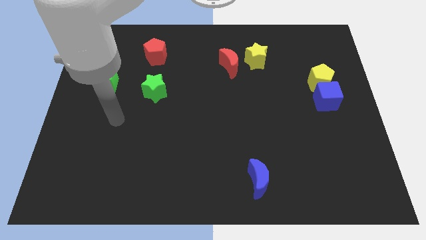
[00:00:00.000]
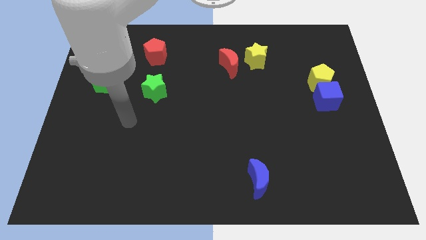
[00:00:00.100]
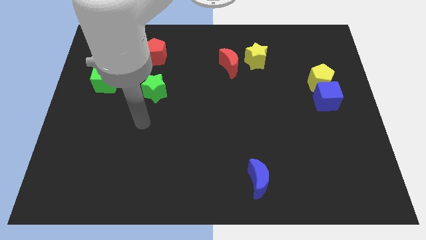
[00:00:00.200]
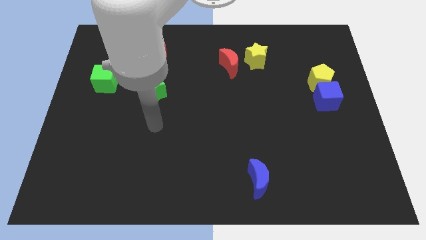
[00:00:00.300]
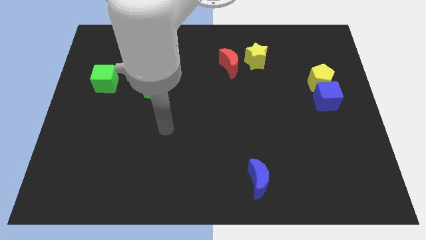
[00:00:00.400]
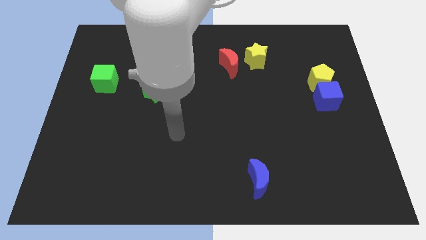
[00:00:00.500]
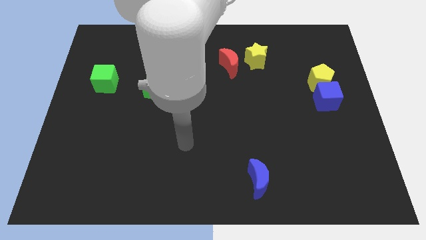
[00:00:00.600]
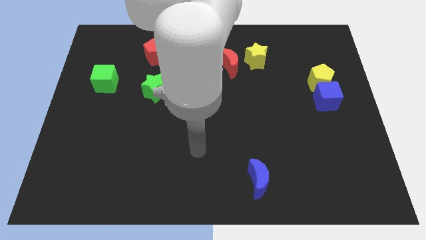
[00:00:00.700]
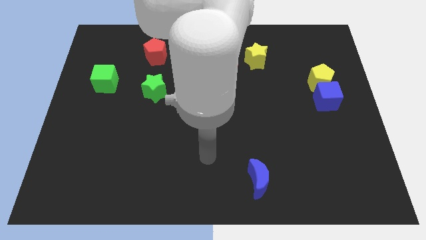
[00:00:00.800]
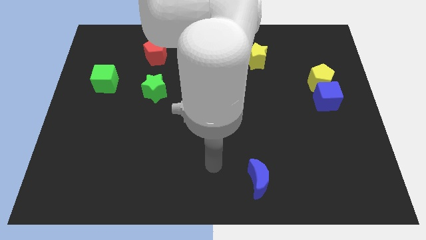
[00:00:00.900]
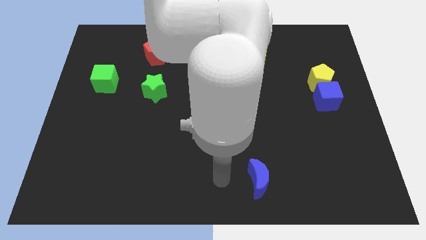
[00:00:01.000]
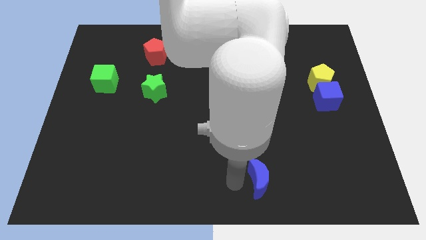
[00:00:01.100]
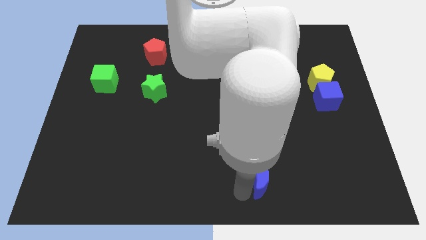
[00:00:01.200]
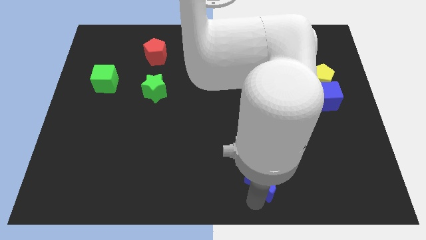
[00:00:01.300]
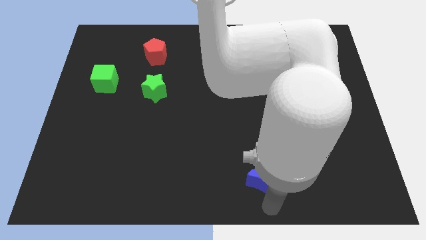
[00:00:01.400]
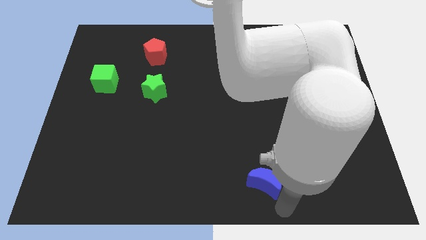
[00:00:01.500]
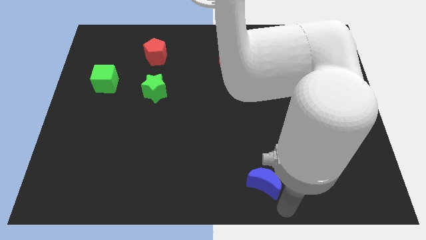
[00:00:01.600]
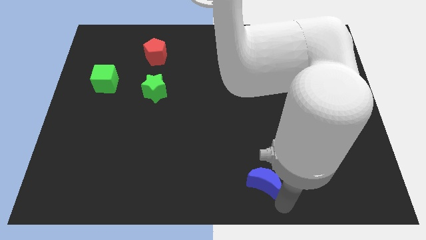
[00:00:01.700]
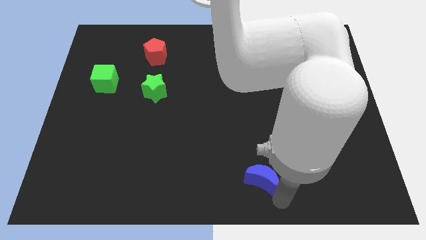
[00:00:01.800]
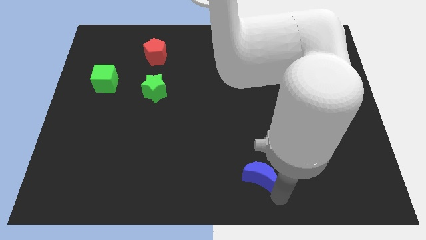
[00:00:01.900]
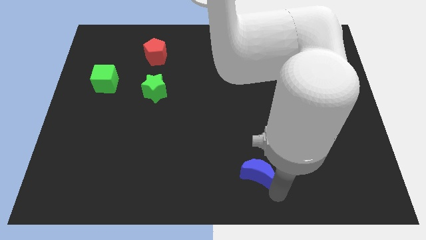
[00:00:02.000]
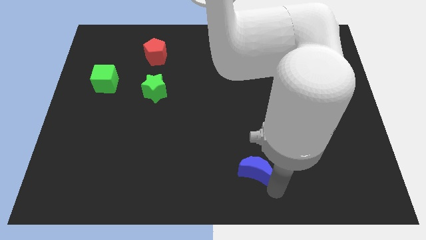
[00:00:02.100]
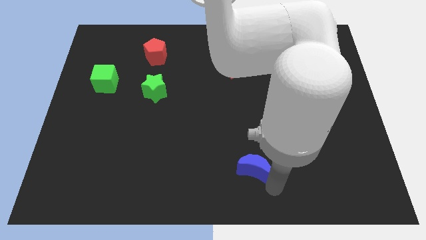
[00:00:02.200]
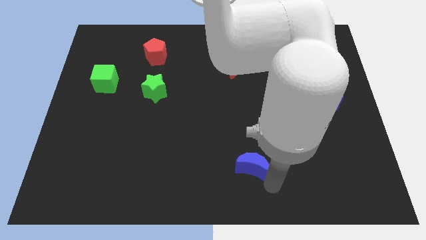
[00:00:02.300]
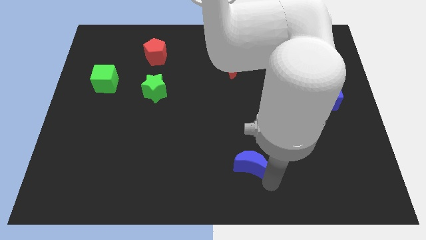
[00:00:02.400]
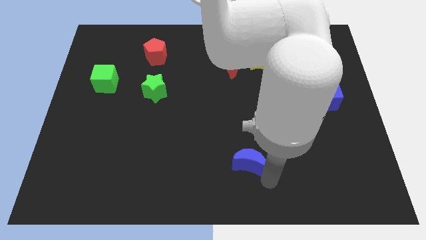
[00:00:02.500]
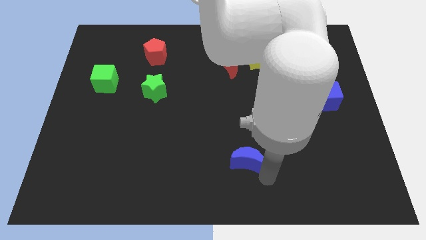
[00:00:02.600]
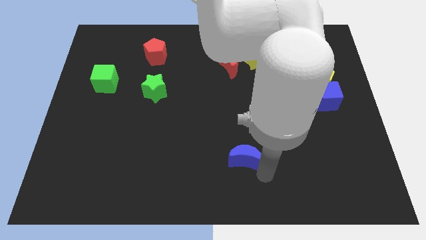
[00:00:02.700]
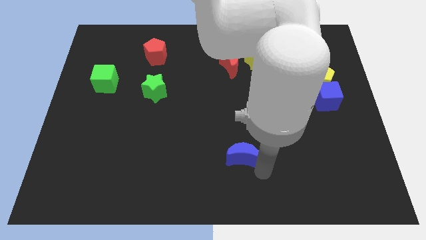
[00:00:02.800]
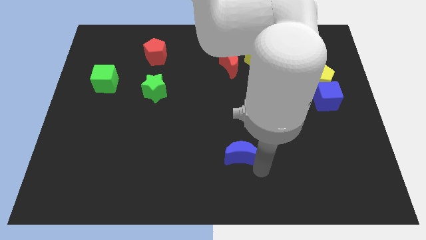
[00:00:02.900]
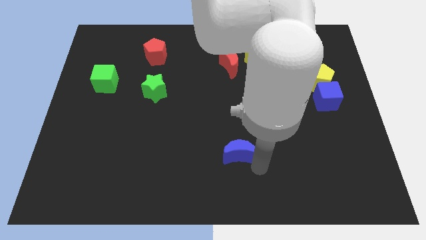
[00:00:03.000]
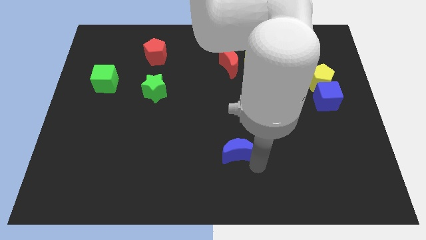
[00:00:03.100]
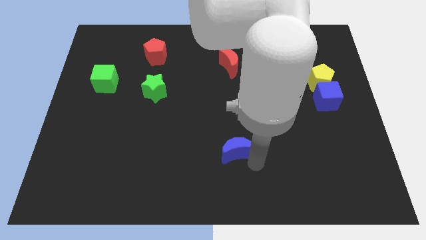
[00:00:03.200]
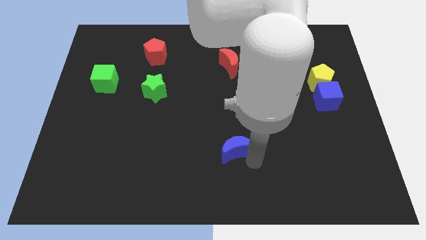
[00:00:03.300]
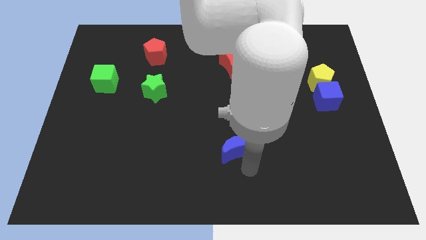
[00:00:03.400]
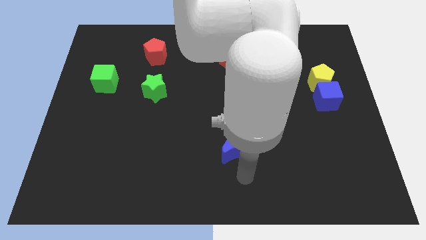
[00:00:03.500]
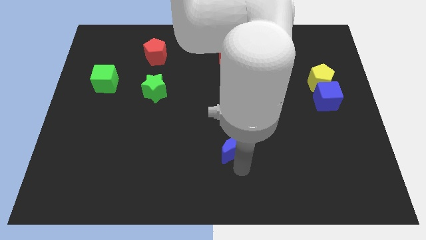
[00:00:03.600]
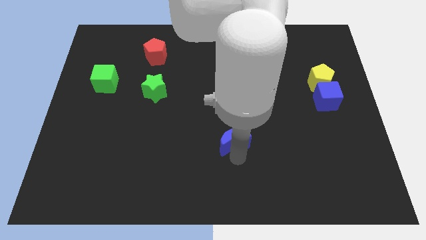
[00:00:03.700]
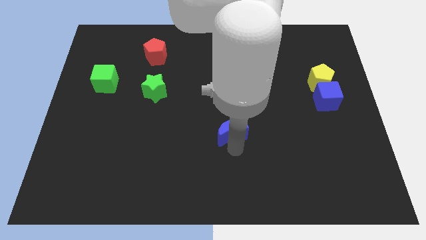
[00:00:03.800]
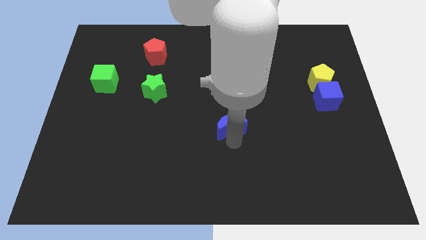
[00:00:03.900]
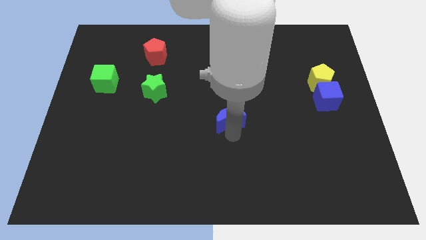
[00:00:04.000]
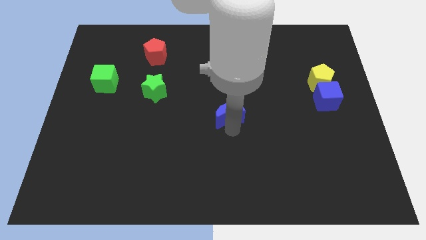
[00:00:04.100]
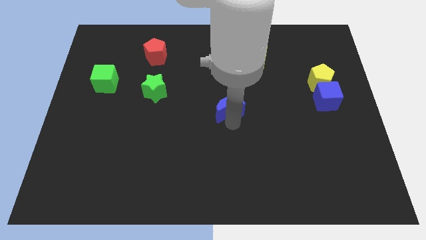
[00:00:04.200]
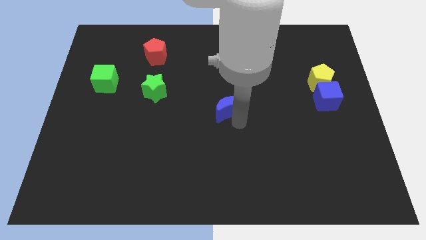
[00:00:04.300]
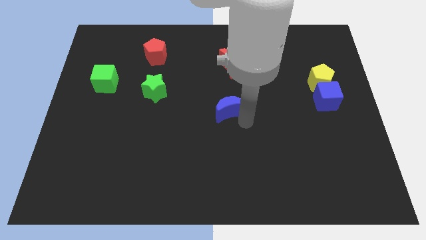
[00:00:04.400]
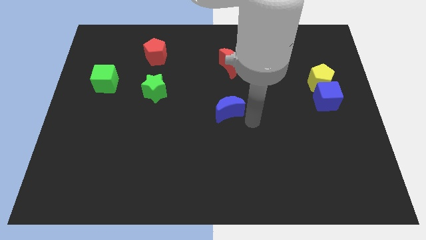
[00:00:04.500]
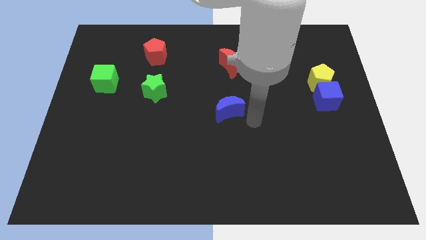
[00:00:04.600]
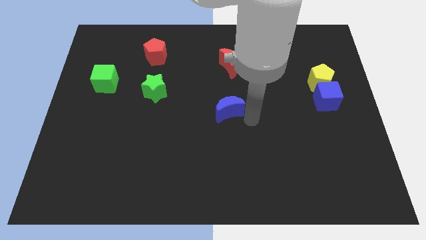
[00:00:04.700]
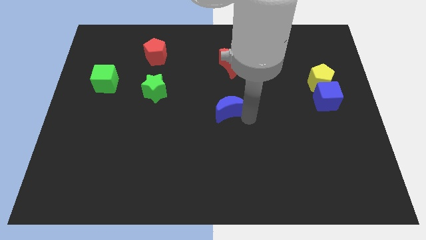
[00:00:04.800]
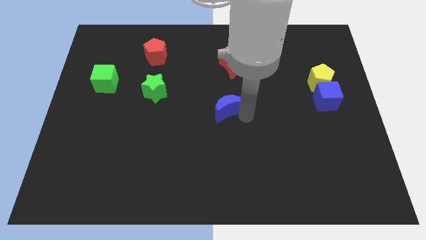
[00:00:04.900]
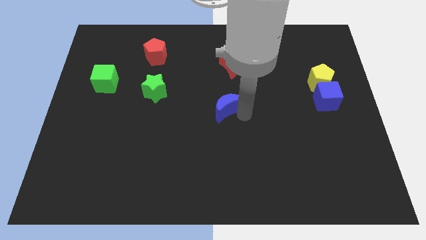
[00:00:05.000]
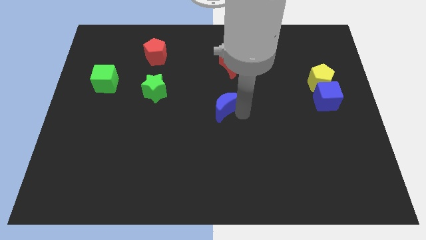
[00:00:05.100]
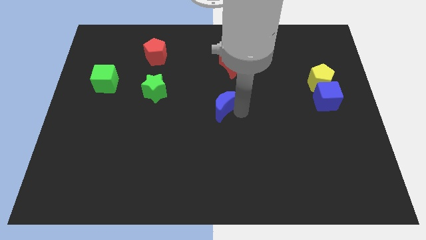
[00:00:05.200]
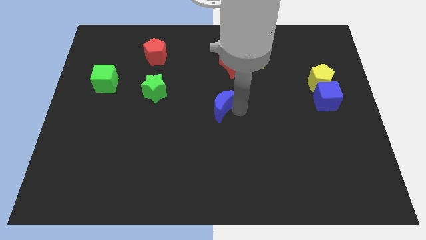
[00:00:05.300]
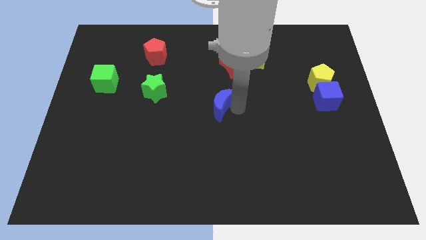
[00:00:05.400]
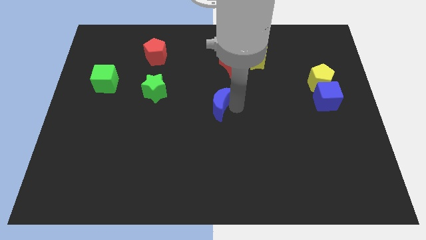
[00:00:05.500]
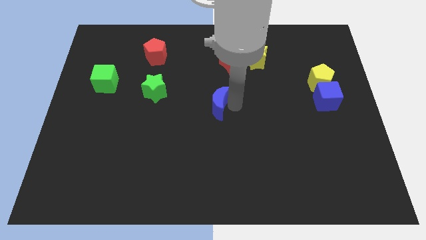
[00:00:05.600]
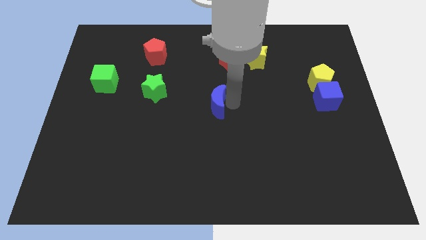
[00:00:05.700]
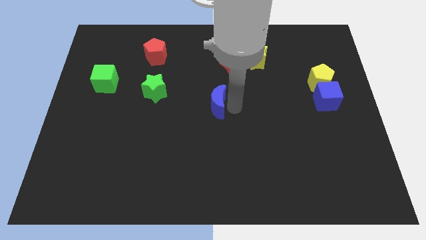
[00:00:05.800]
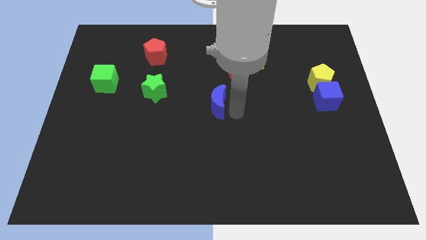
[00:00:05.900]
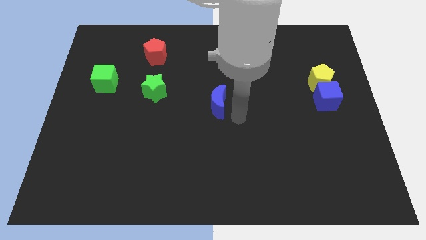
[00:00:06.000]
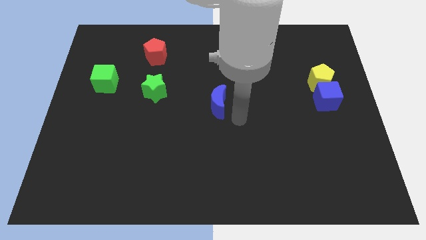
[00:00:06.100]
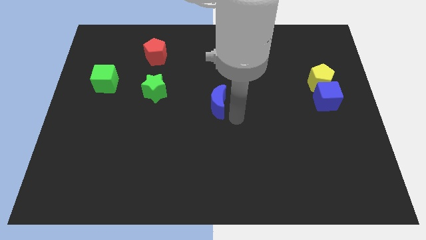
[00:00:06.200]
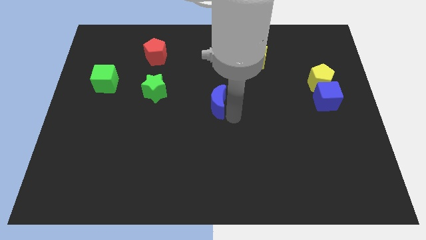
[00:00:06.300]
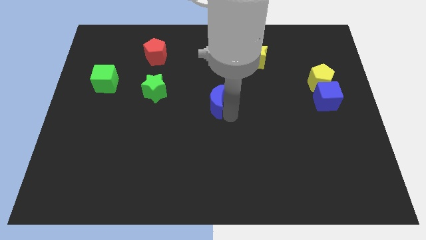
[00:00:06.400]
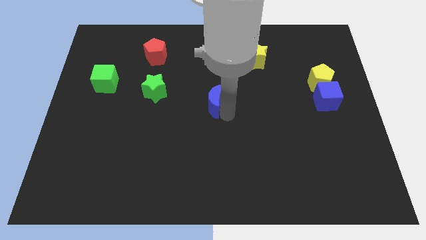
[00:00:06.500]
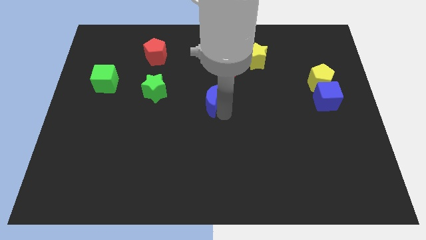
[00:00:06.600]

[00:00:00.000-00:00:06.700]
move the blue moon right of the green star

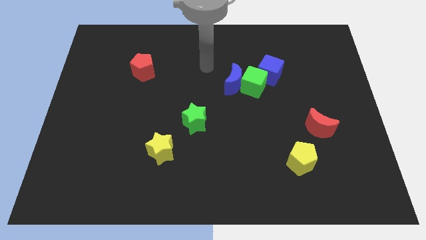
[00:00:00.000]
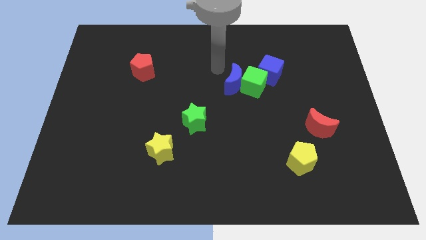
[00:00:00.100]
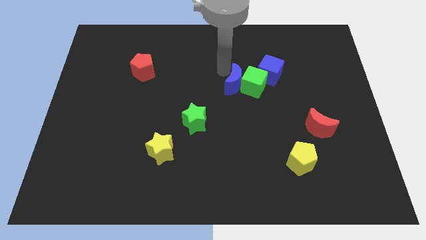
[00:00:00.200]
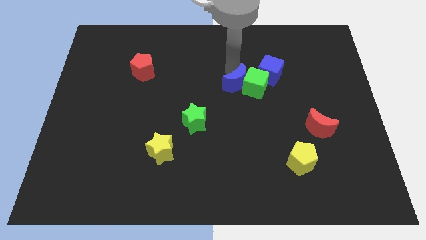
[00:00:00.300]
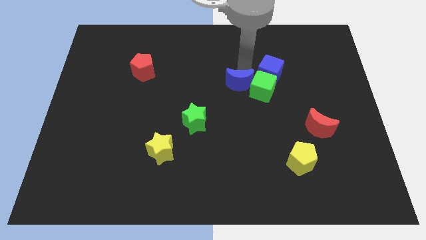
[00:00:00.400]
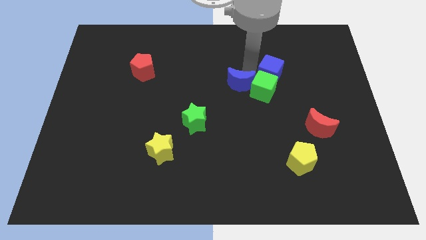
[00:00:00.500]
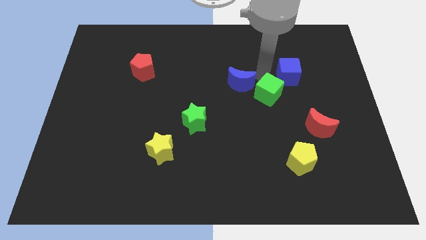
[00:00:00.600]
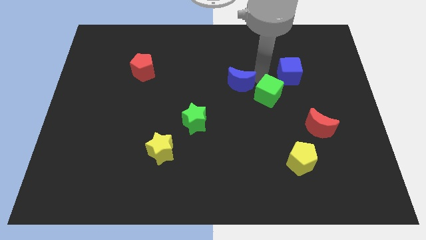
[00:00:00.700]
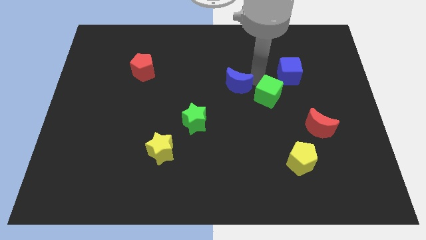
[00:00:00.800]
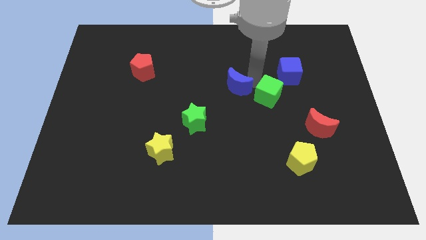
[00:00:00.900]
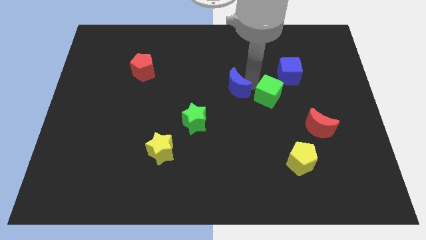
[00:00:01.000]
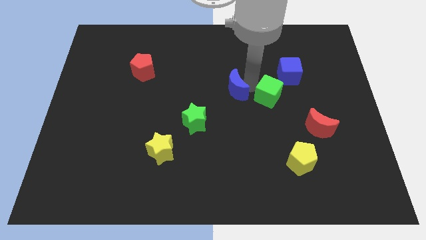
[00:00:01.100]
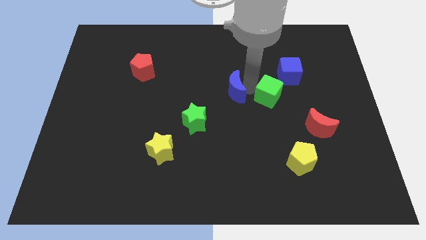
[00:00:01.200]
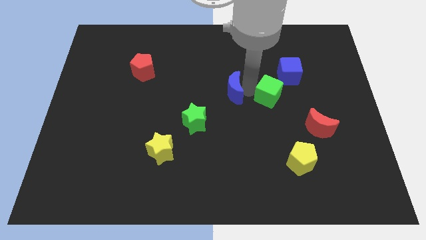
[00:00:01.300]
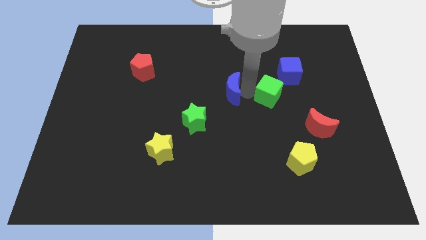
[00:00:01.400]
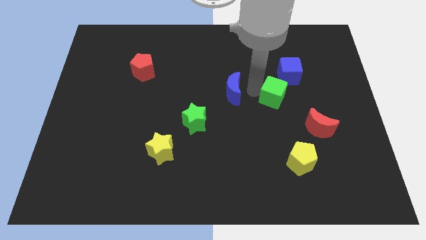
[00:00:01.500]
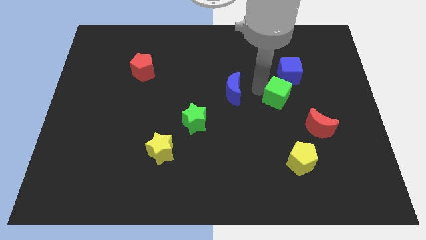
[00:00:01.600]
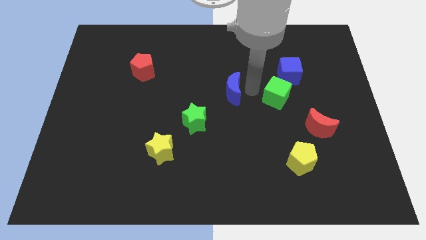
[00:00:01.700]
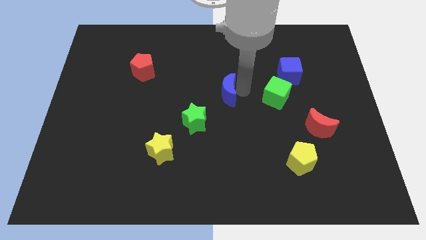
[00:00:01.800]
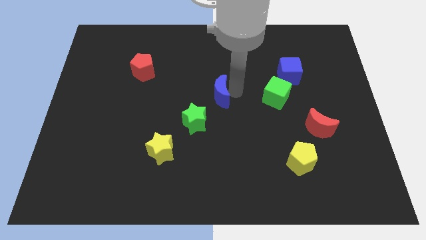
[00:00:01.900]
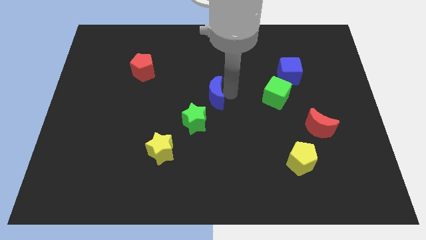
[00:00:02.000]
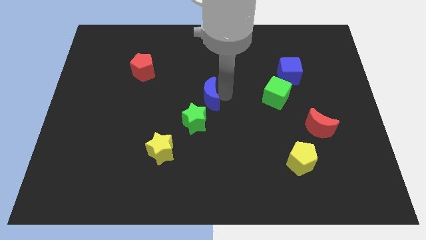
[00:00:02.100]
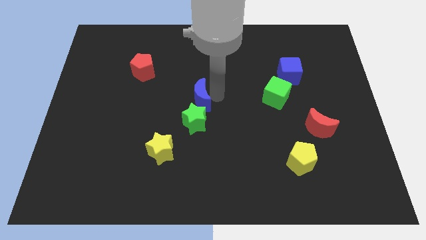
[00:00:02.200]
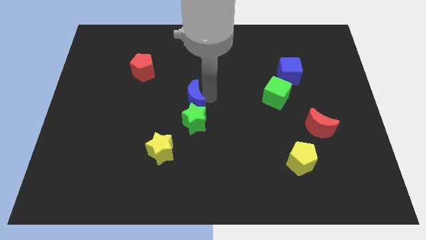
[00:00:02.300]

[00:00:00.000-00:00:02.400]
push the blue moon to the top left side of the green star
